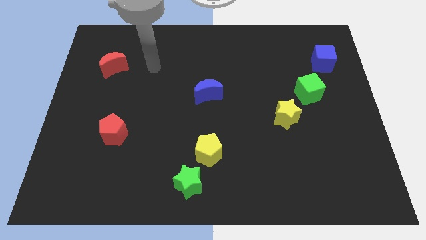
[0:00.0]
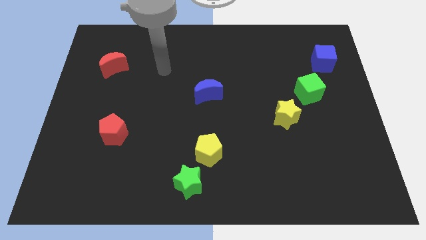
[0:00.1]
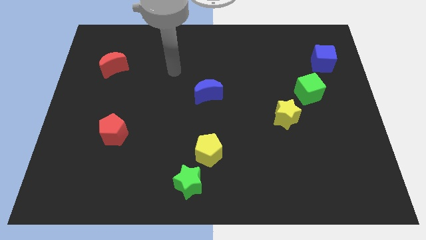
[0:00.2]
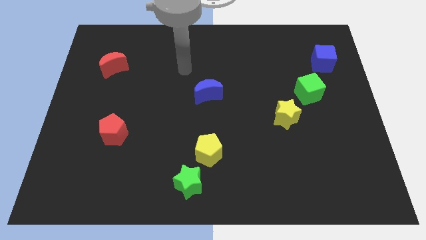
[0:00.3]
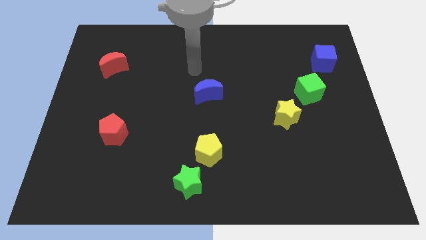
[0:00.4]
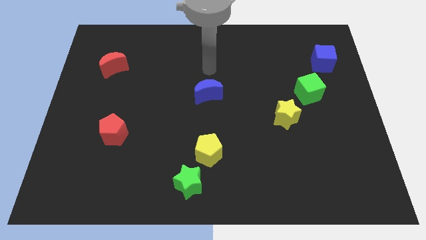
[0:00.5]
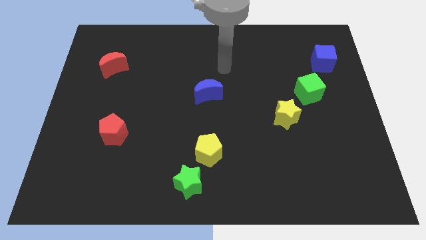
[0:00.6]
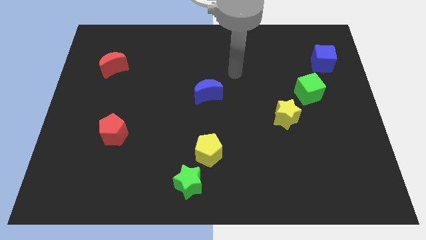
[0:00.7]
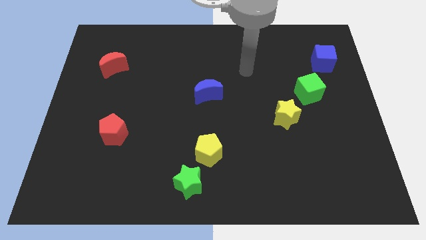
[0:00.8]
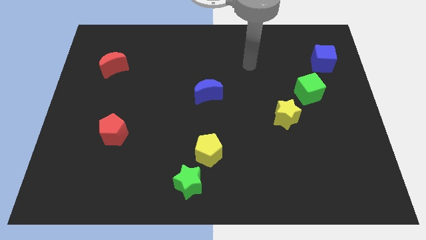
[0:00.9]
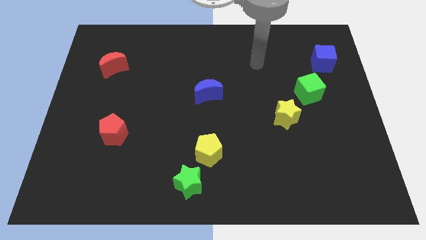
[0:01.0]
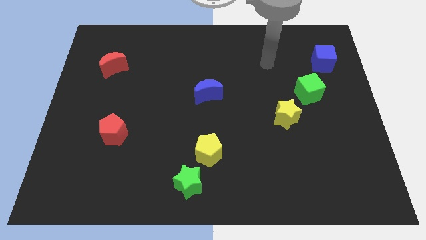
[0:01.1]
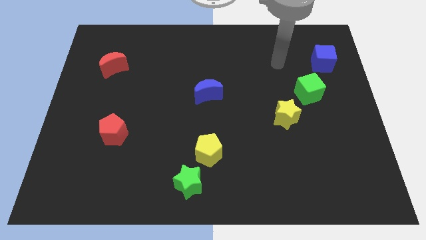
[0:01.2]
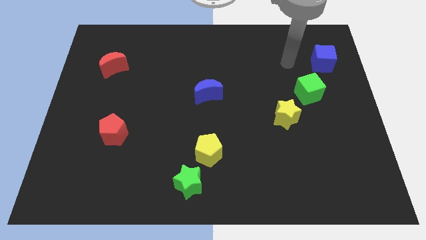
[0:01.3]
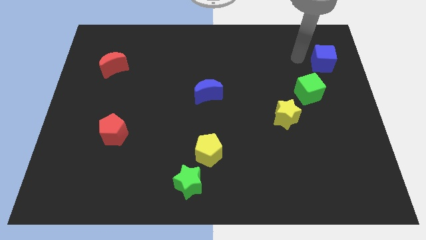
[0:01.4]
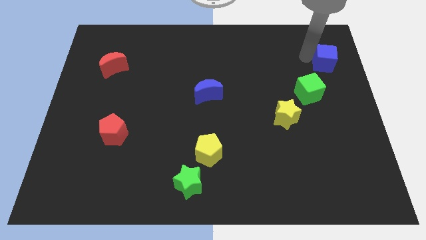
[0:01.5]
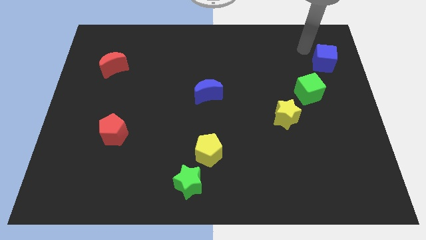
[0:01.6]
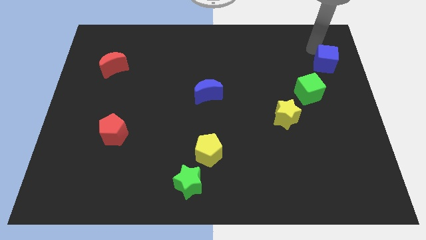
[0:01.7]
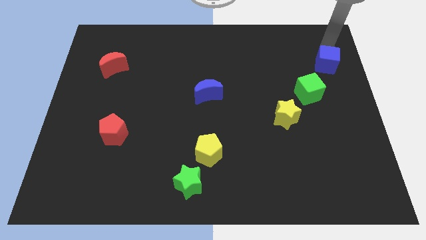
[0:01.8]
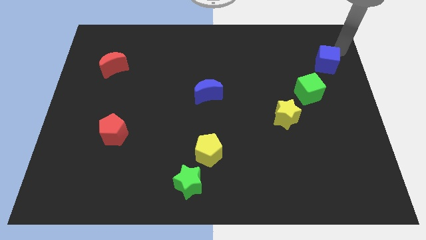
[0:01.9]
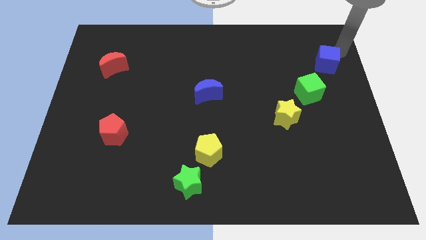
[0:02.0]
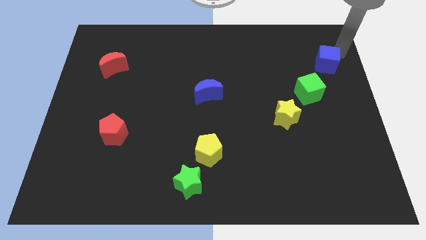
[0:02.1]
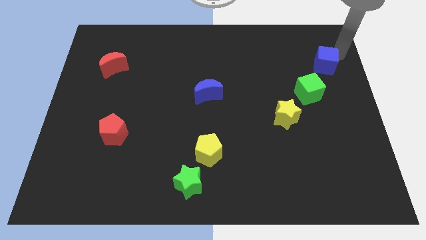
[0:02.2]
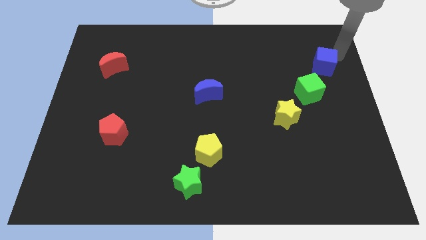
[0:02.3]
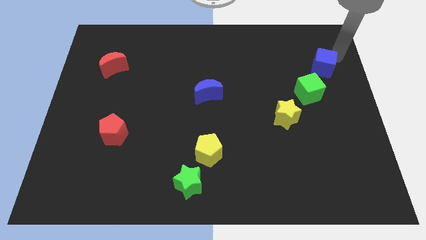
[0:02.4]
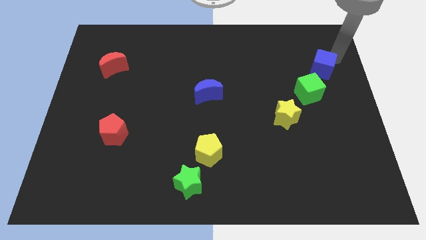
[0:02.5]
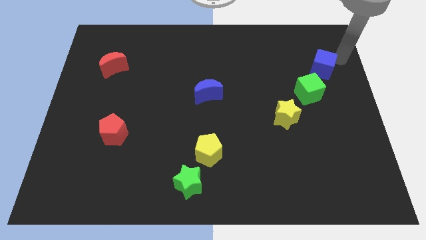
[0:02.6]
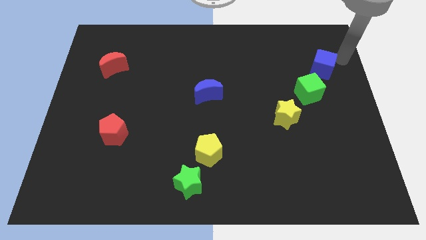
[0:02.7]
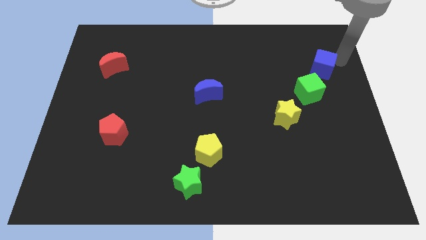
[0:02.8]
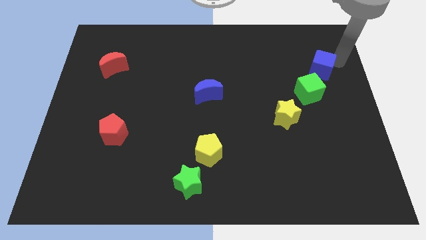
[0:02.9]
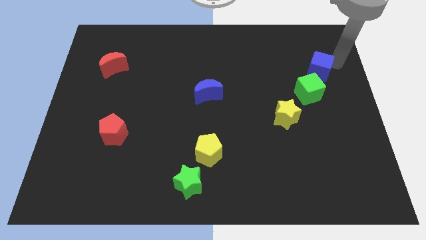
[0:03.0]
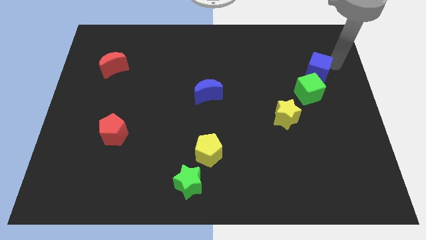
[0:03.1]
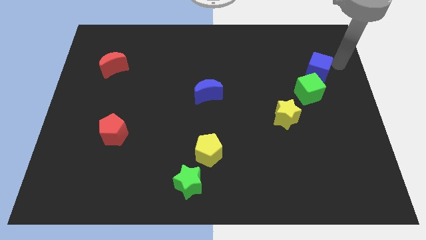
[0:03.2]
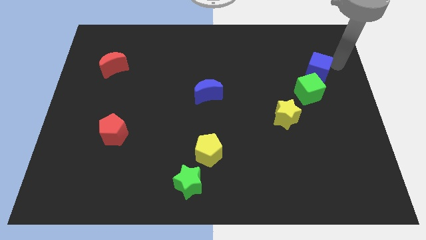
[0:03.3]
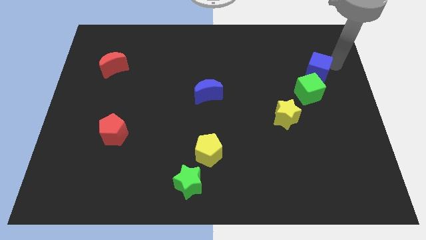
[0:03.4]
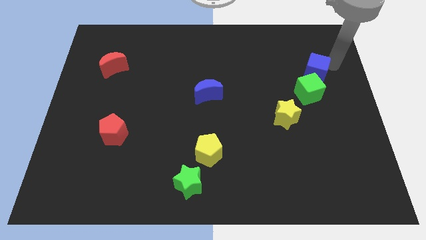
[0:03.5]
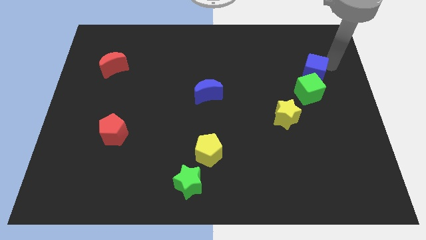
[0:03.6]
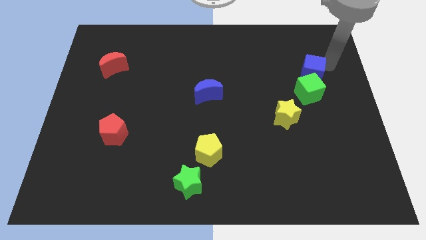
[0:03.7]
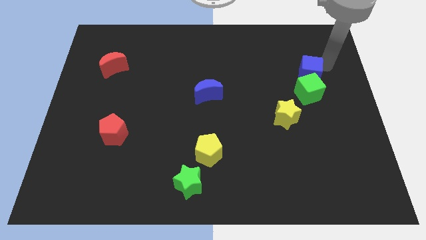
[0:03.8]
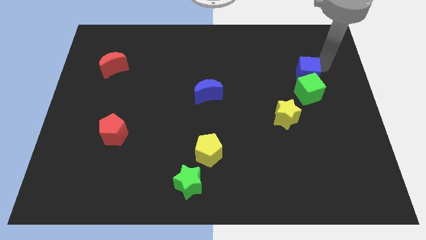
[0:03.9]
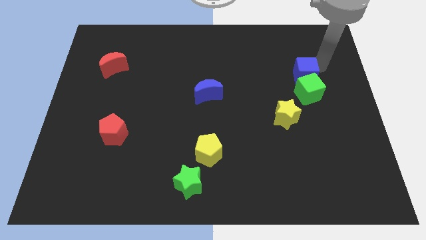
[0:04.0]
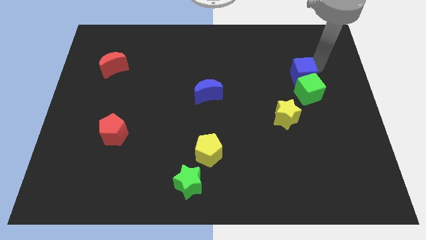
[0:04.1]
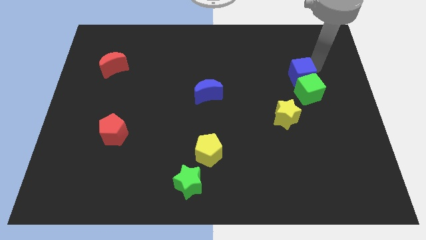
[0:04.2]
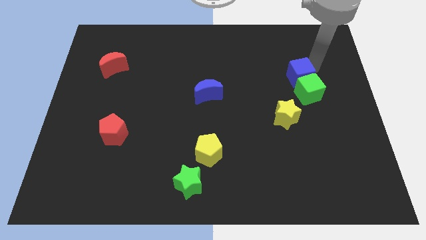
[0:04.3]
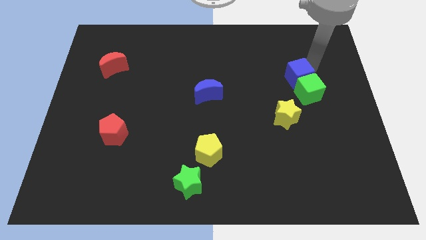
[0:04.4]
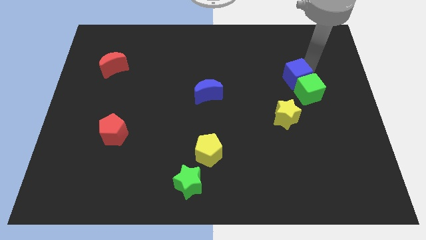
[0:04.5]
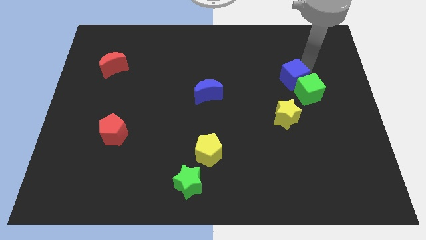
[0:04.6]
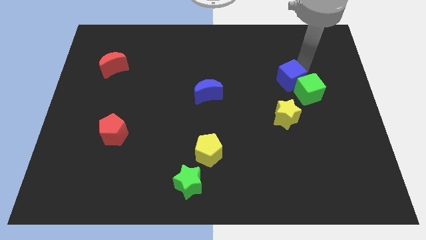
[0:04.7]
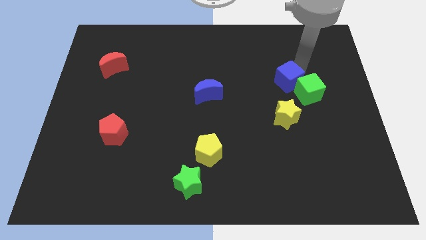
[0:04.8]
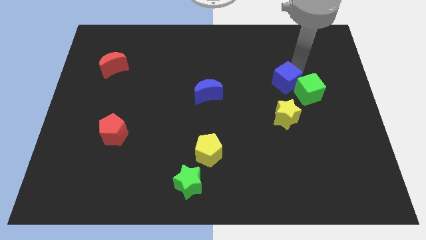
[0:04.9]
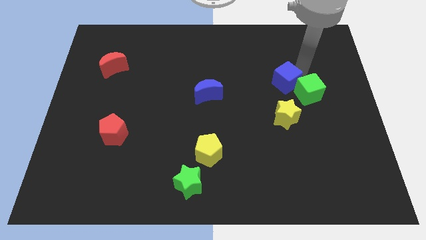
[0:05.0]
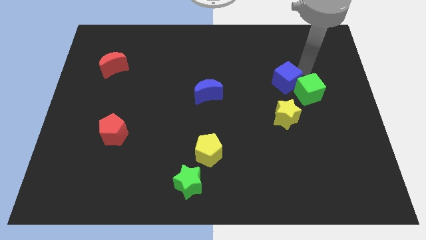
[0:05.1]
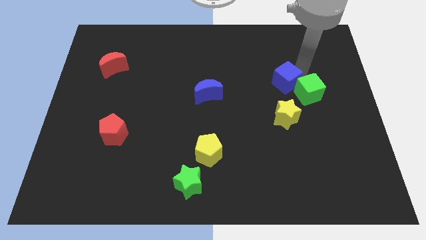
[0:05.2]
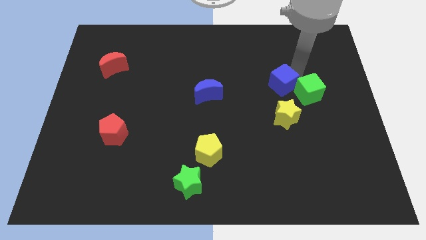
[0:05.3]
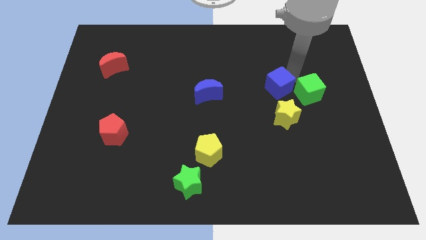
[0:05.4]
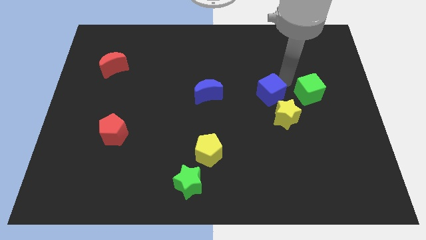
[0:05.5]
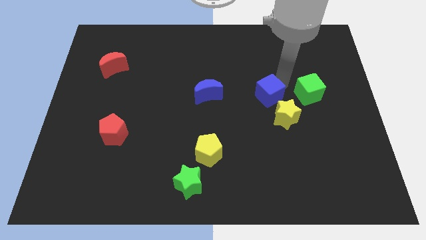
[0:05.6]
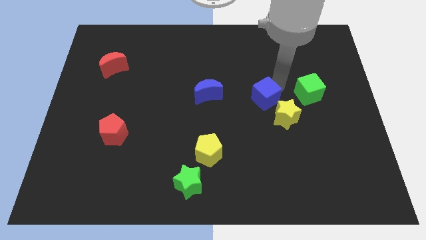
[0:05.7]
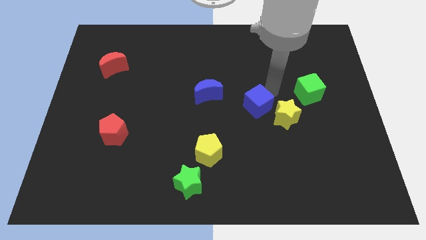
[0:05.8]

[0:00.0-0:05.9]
move the blue cube to the left side of the yellow star

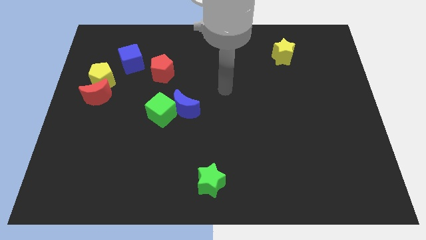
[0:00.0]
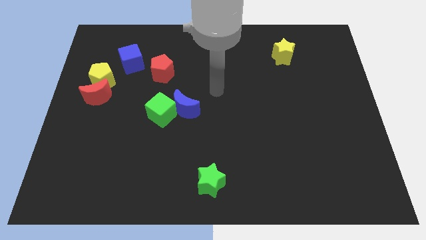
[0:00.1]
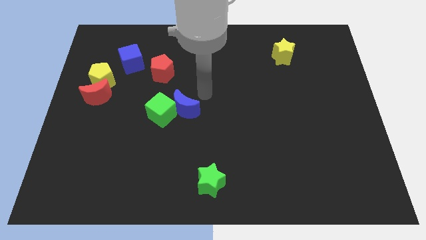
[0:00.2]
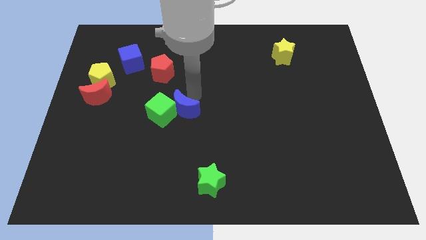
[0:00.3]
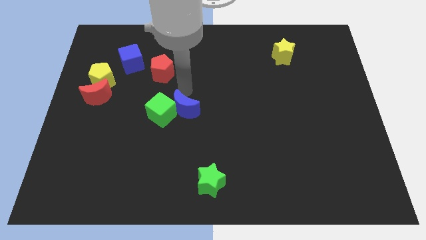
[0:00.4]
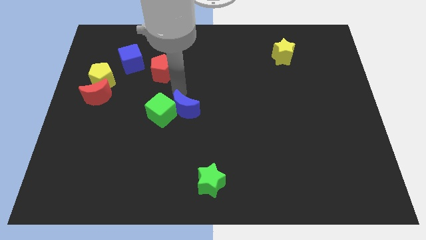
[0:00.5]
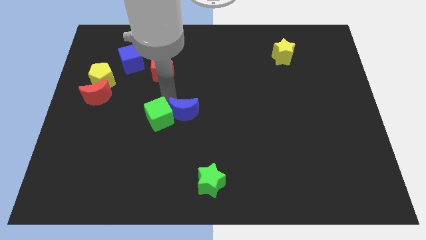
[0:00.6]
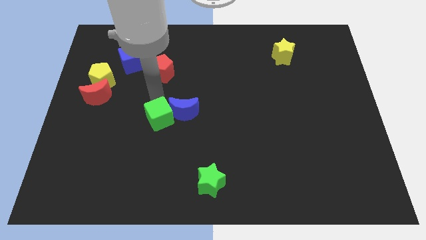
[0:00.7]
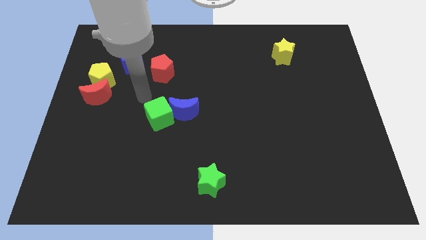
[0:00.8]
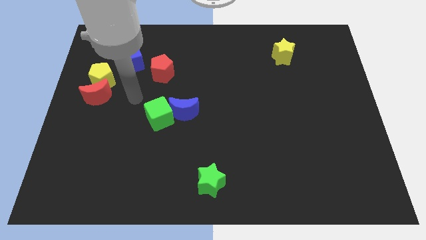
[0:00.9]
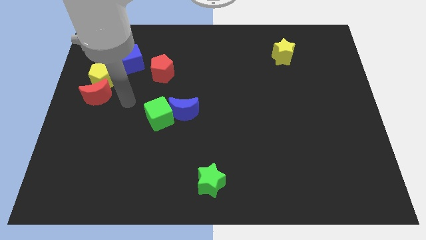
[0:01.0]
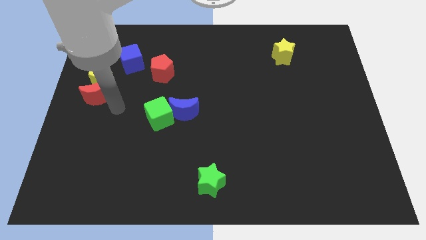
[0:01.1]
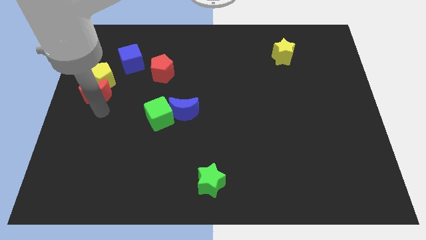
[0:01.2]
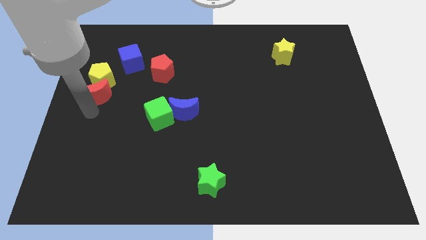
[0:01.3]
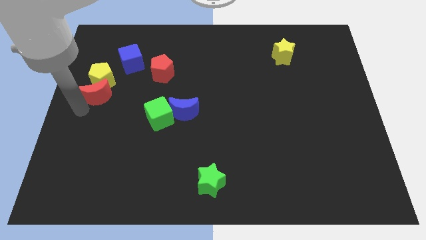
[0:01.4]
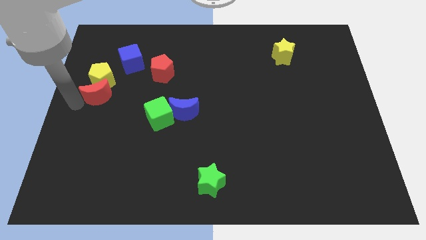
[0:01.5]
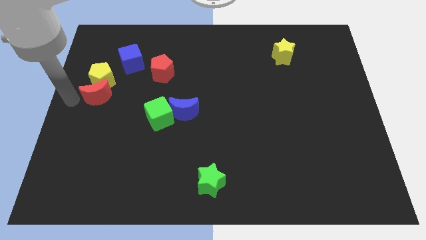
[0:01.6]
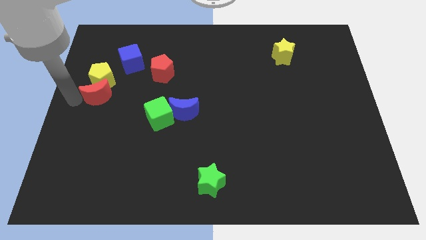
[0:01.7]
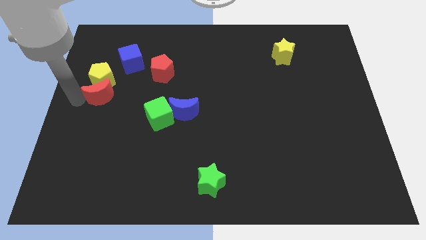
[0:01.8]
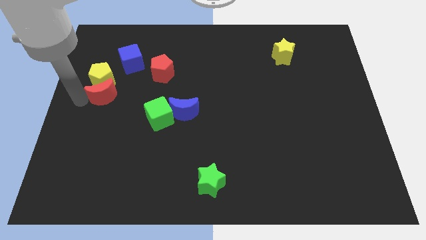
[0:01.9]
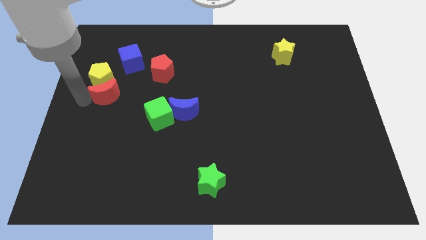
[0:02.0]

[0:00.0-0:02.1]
push the red moon to the bottom side of the blue cube
